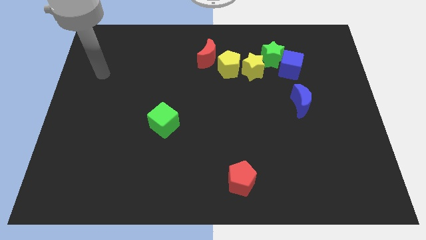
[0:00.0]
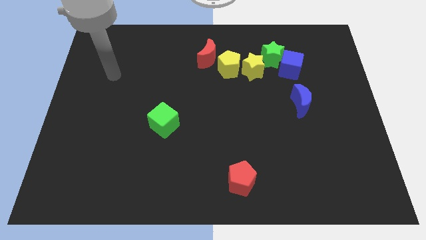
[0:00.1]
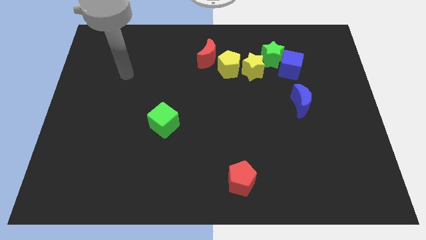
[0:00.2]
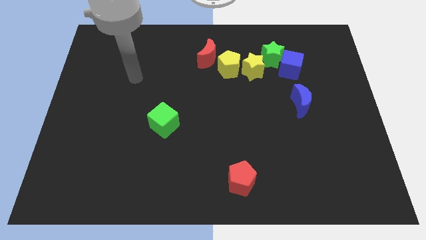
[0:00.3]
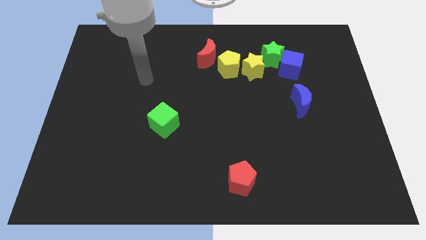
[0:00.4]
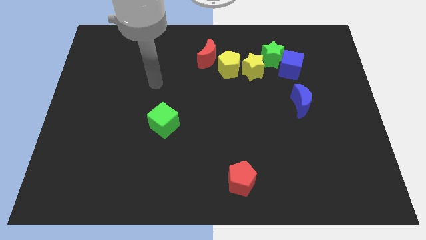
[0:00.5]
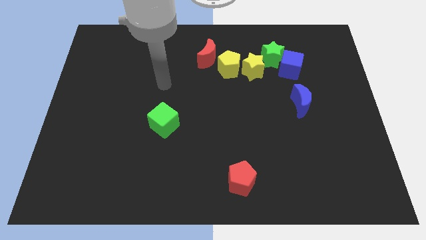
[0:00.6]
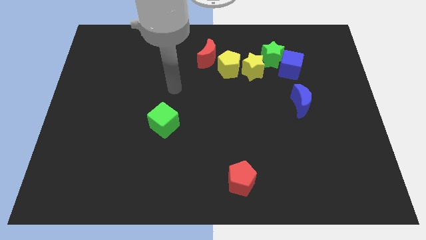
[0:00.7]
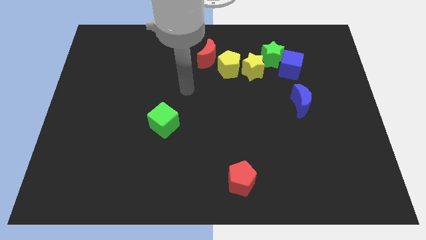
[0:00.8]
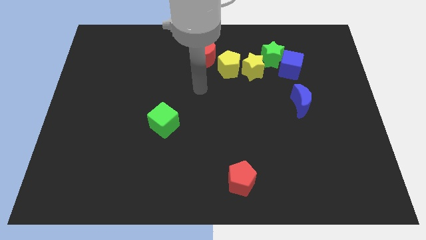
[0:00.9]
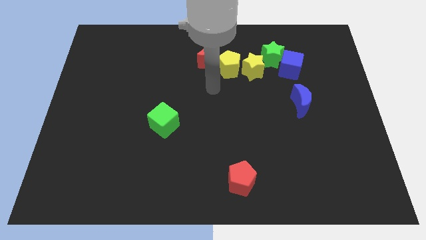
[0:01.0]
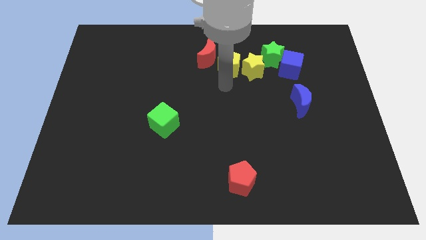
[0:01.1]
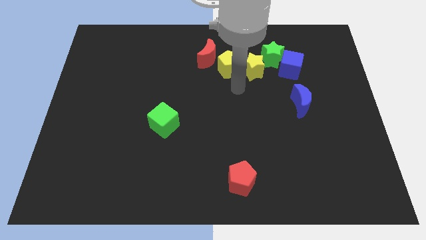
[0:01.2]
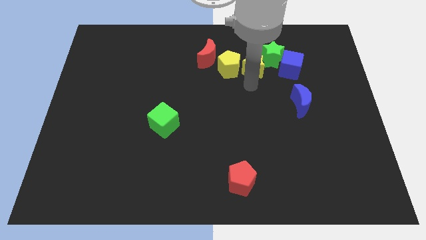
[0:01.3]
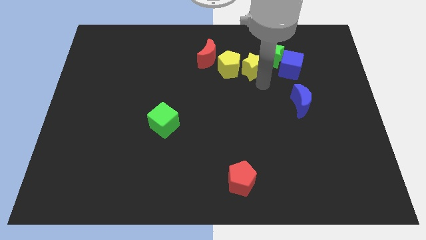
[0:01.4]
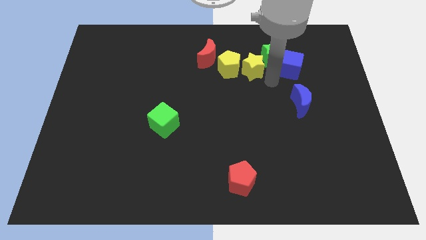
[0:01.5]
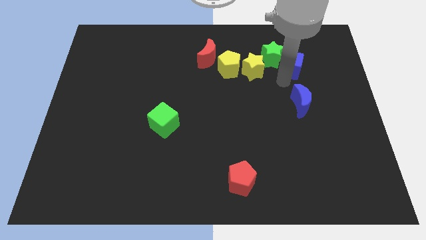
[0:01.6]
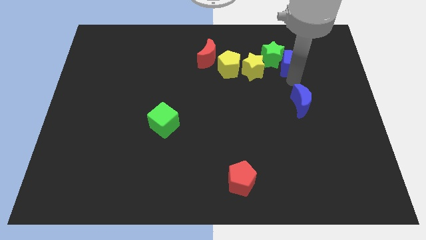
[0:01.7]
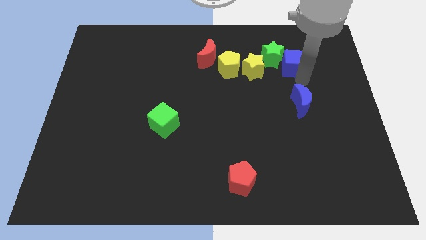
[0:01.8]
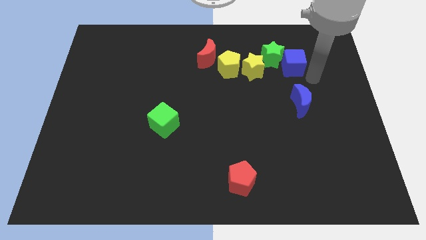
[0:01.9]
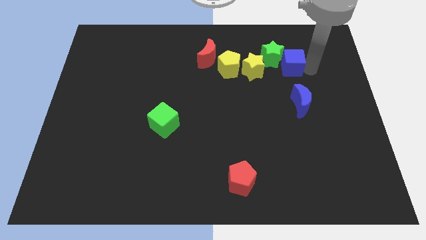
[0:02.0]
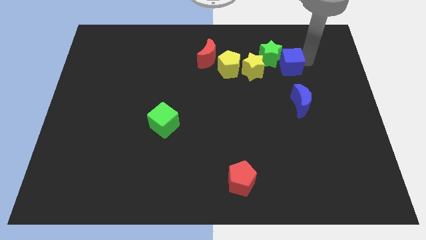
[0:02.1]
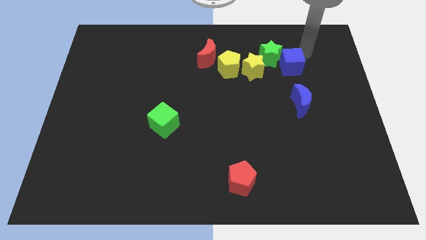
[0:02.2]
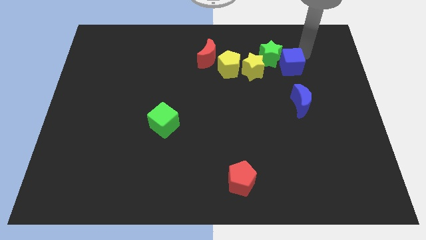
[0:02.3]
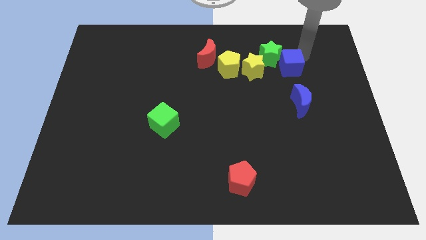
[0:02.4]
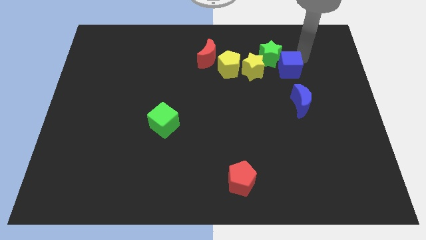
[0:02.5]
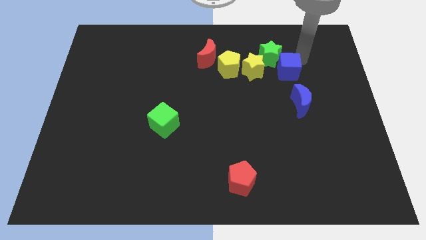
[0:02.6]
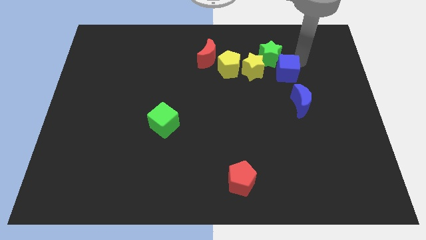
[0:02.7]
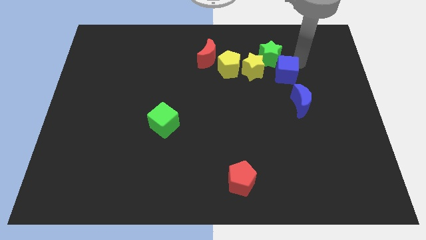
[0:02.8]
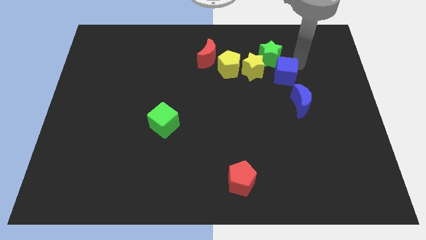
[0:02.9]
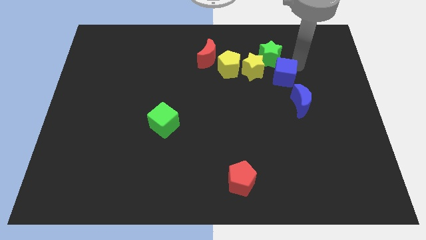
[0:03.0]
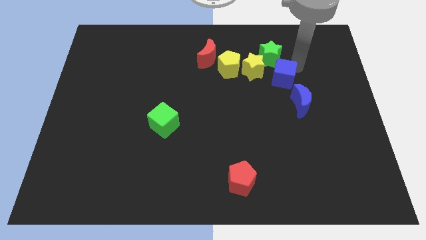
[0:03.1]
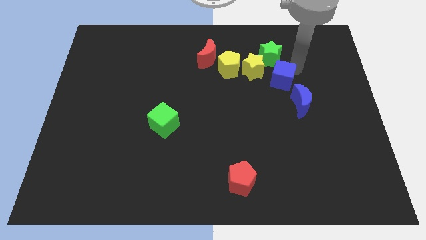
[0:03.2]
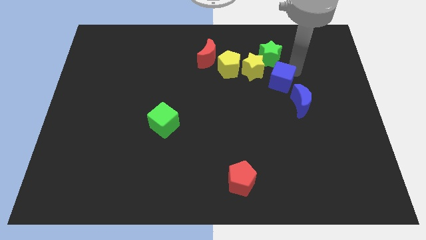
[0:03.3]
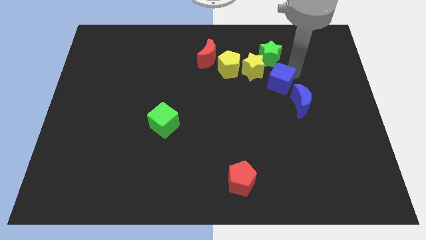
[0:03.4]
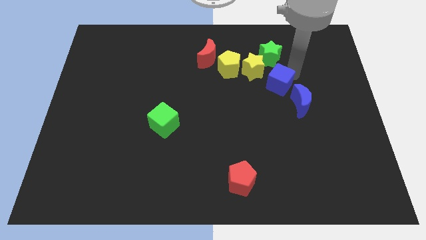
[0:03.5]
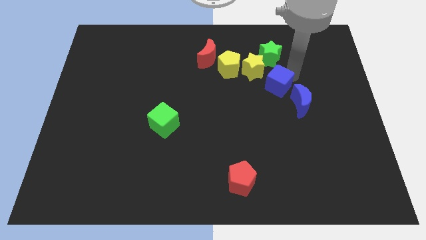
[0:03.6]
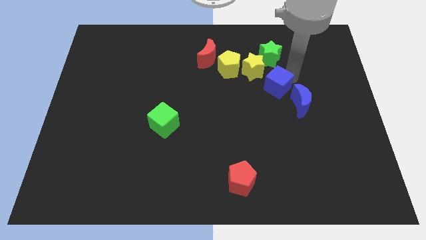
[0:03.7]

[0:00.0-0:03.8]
slide the blue cube downwards and to the left diagonally a little

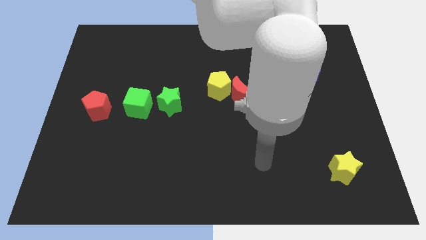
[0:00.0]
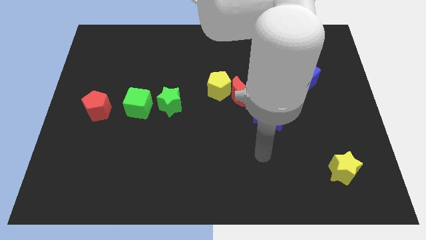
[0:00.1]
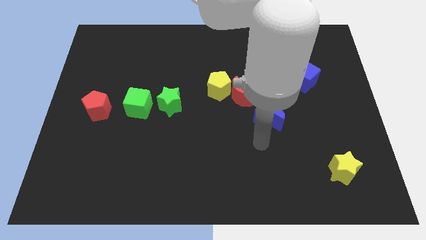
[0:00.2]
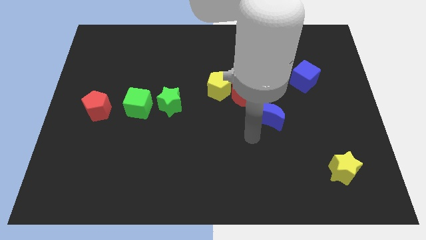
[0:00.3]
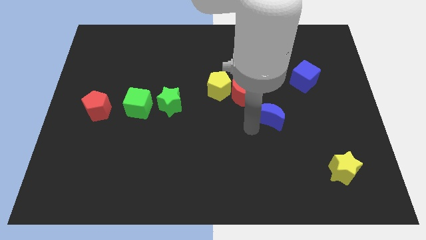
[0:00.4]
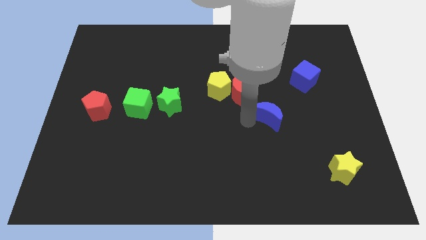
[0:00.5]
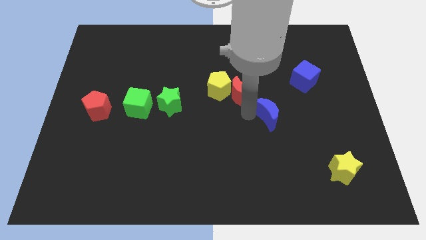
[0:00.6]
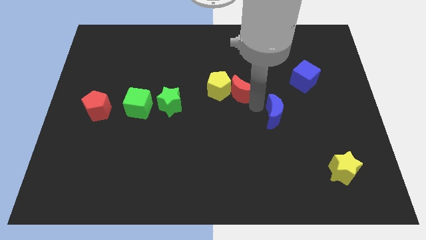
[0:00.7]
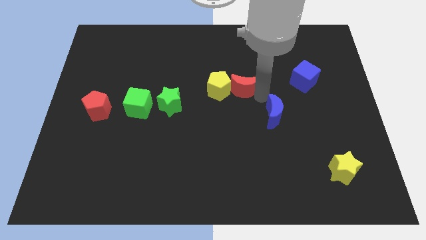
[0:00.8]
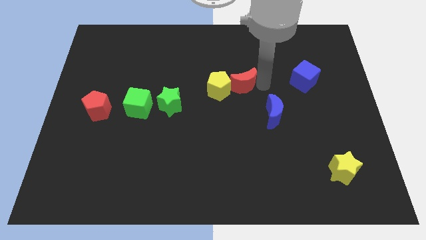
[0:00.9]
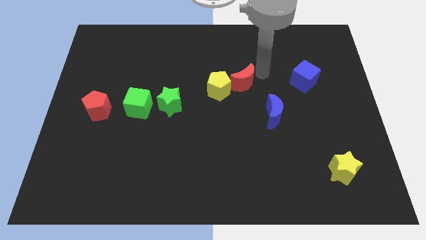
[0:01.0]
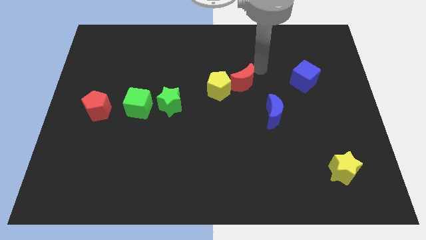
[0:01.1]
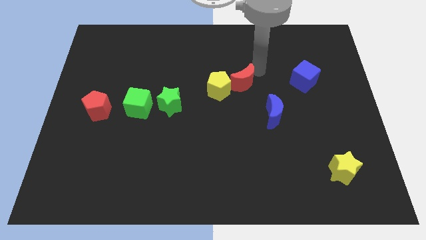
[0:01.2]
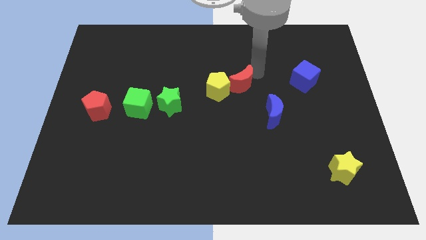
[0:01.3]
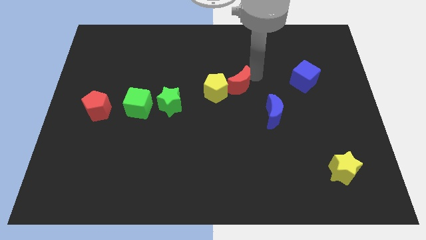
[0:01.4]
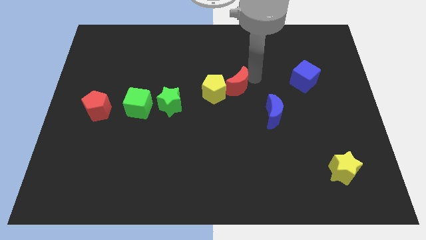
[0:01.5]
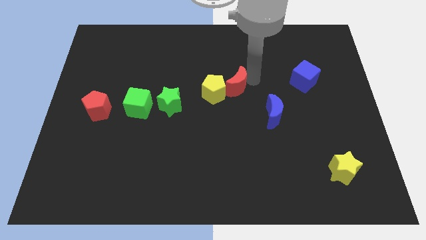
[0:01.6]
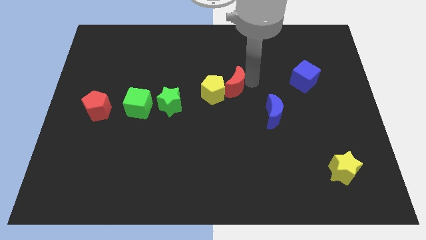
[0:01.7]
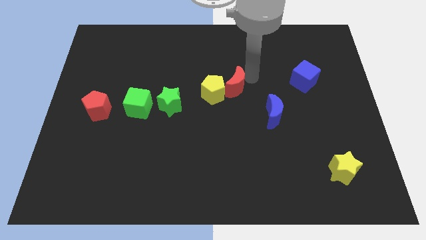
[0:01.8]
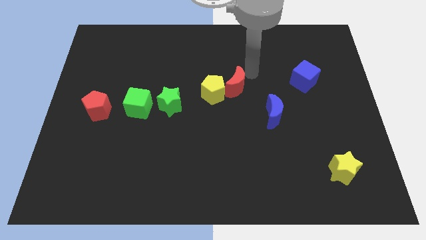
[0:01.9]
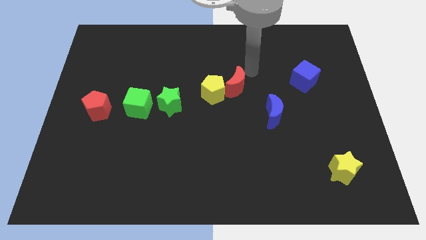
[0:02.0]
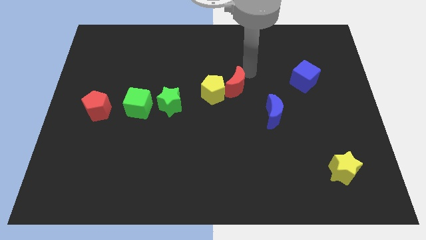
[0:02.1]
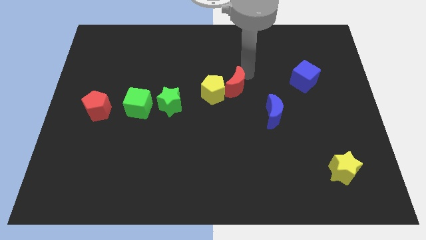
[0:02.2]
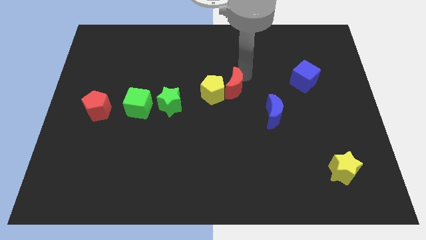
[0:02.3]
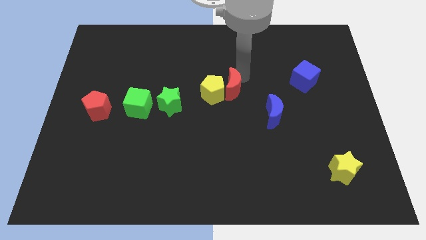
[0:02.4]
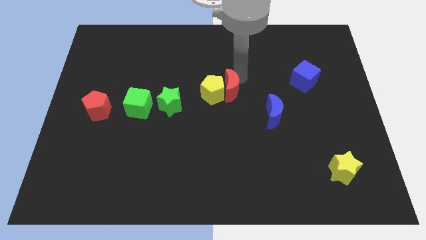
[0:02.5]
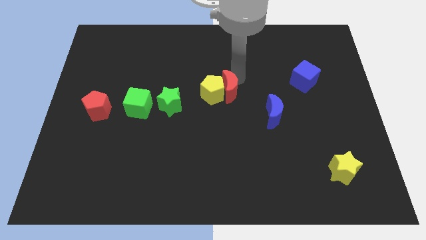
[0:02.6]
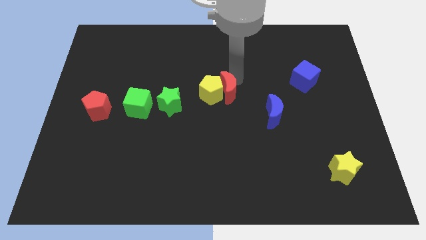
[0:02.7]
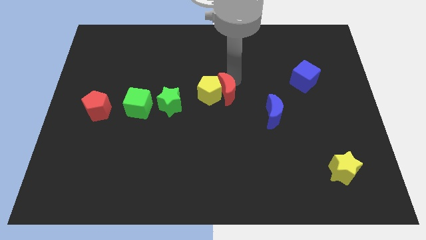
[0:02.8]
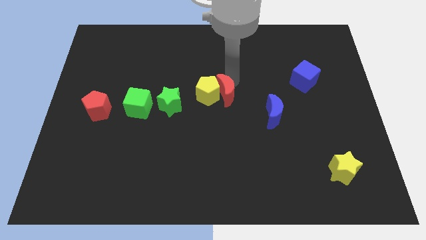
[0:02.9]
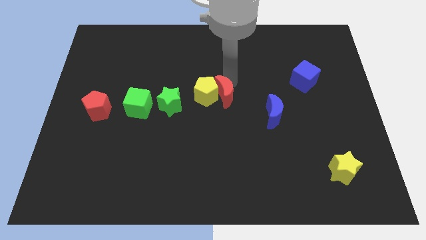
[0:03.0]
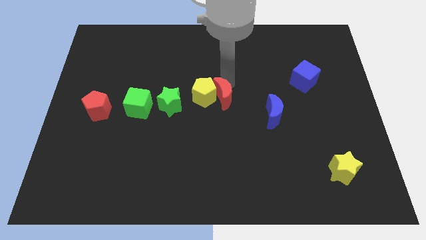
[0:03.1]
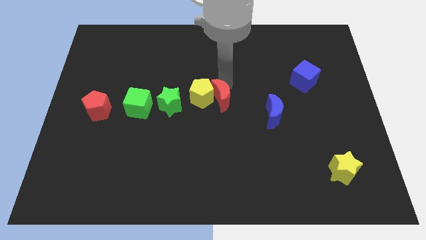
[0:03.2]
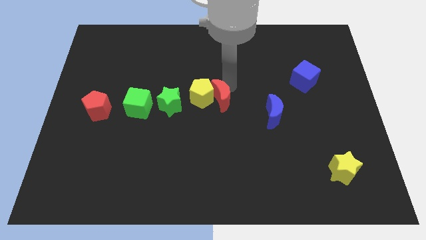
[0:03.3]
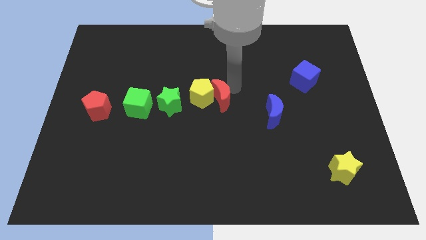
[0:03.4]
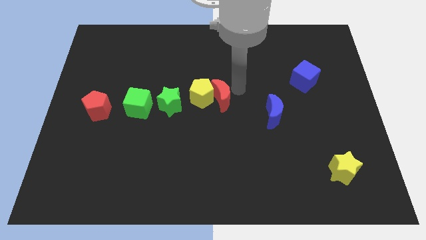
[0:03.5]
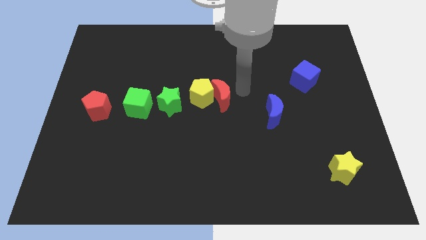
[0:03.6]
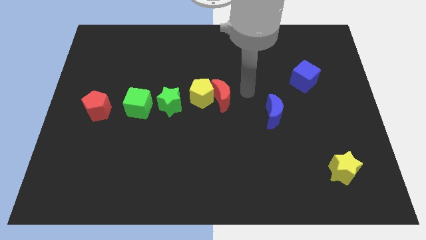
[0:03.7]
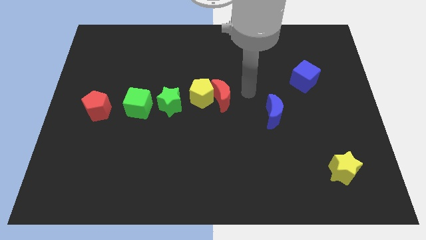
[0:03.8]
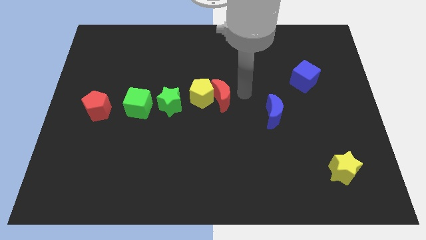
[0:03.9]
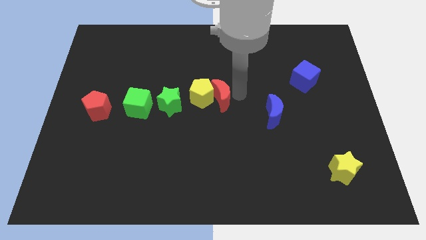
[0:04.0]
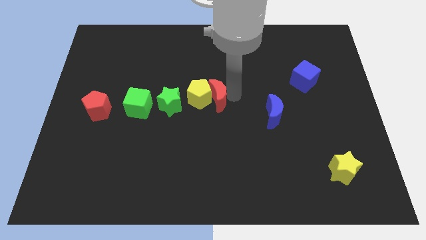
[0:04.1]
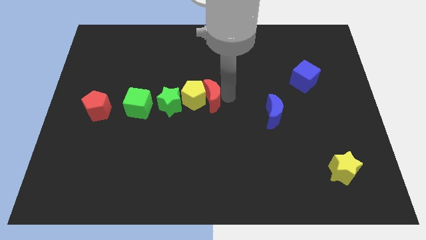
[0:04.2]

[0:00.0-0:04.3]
slightly push the red moon to the left

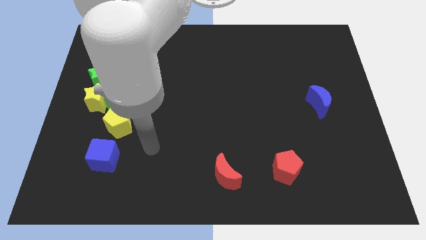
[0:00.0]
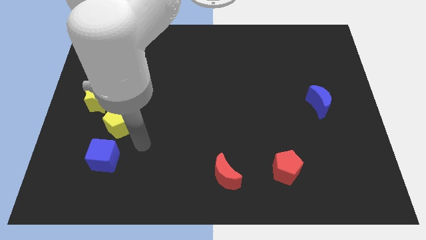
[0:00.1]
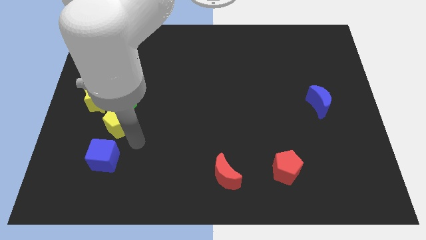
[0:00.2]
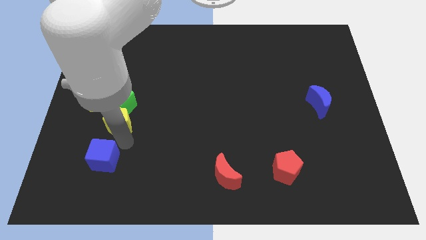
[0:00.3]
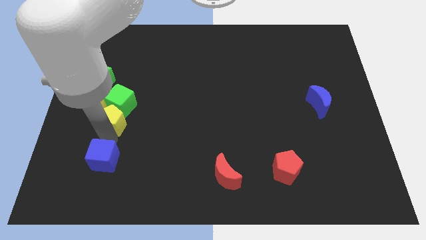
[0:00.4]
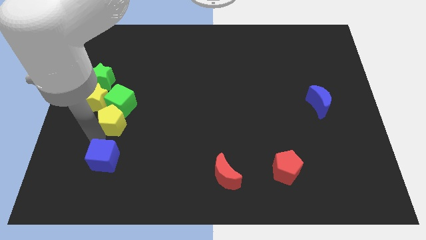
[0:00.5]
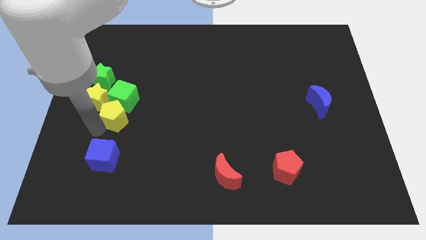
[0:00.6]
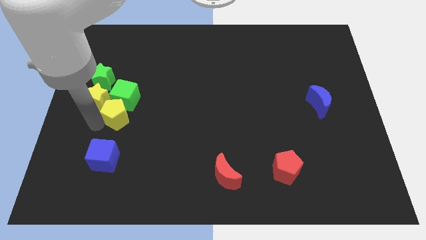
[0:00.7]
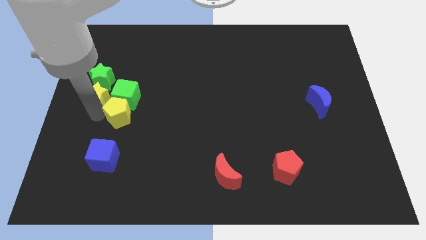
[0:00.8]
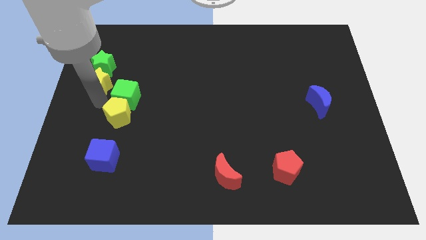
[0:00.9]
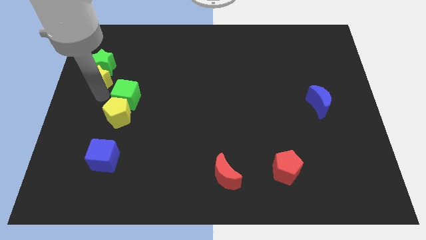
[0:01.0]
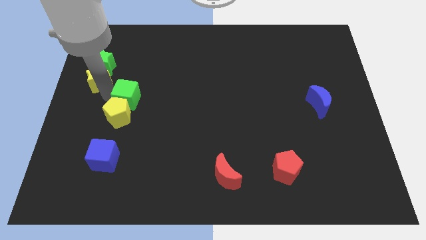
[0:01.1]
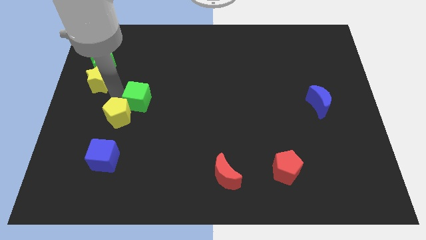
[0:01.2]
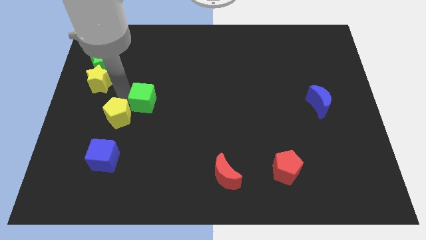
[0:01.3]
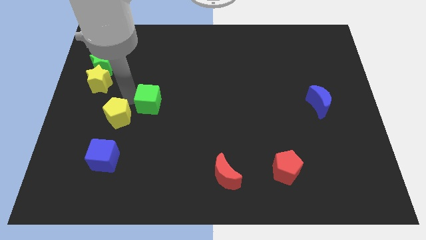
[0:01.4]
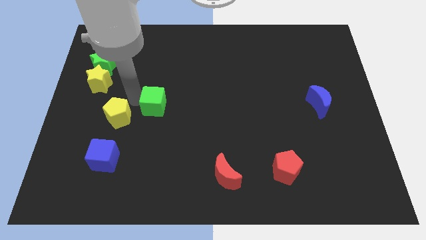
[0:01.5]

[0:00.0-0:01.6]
slightly slide the green cube right
